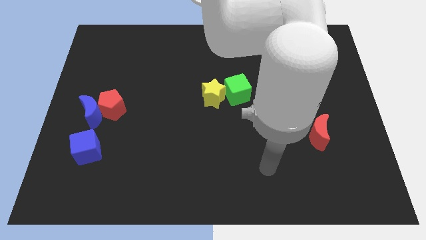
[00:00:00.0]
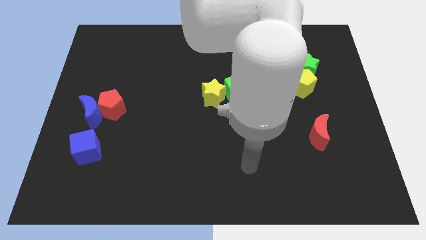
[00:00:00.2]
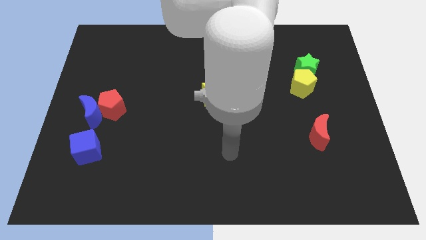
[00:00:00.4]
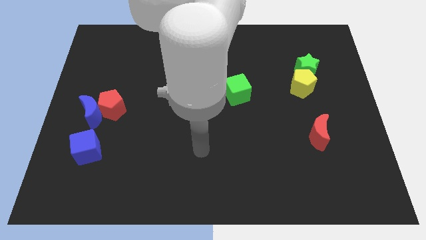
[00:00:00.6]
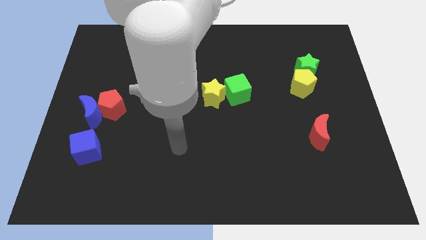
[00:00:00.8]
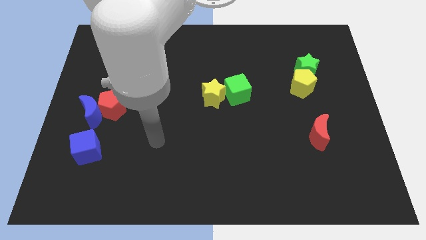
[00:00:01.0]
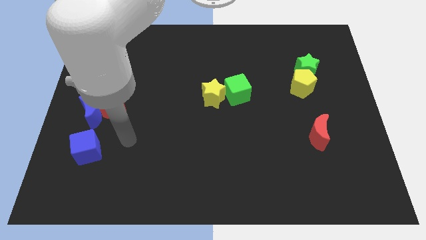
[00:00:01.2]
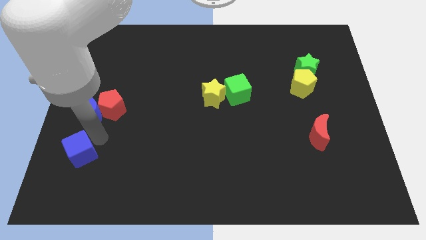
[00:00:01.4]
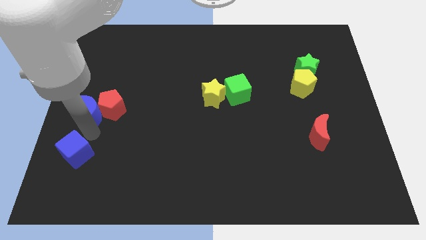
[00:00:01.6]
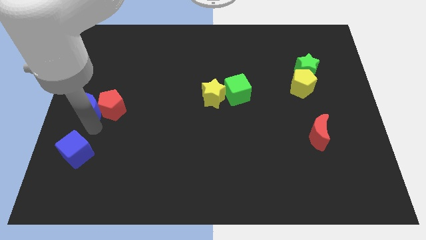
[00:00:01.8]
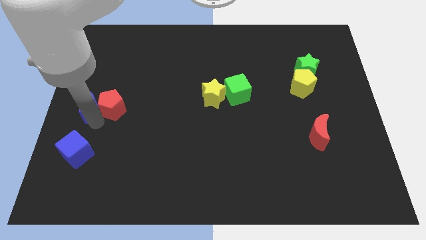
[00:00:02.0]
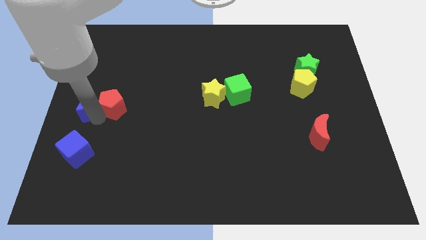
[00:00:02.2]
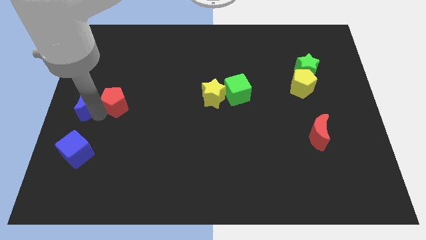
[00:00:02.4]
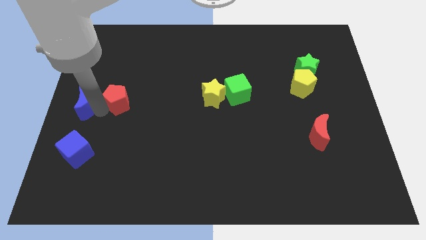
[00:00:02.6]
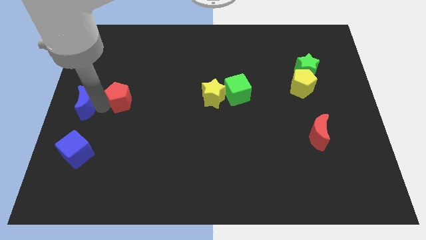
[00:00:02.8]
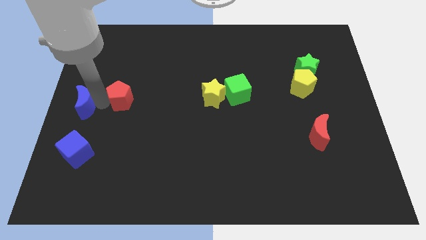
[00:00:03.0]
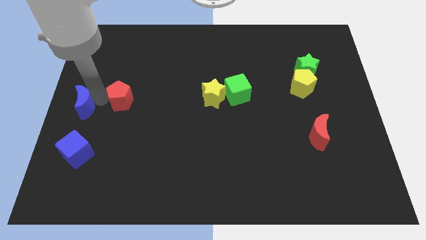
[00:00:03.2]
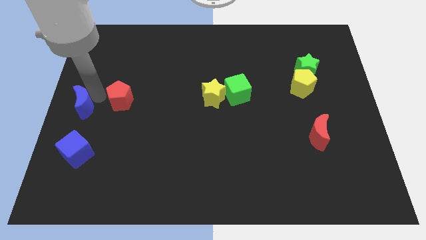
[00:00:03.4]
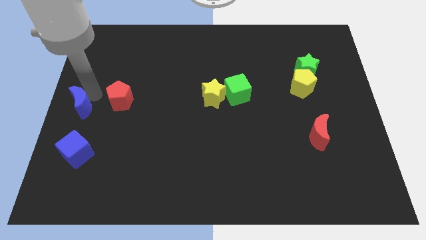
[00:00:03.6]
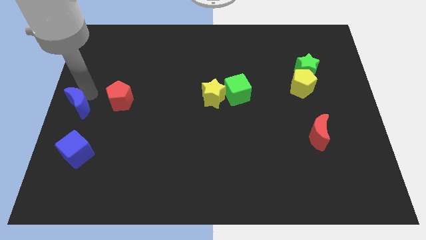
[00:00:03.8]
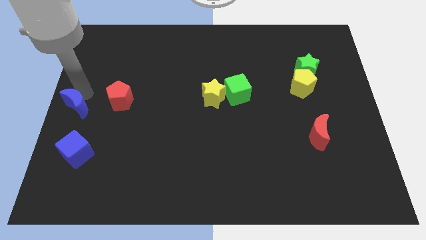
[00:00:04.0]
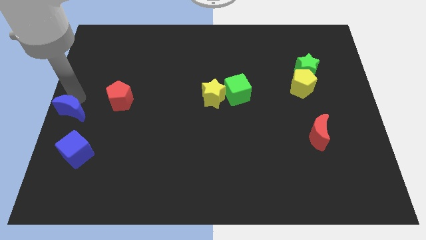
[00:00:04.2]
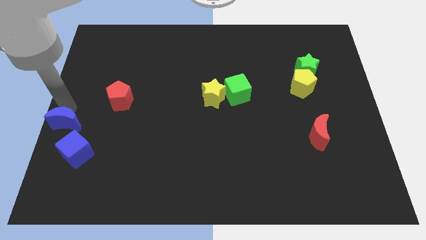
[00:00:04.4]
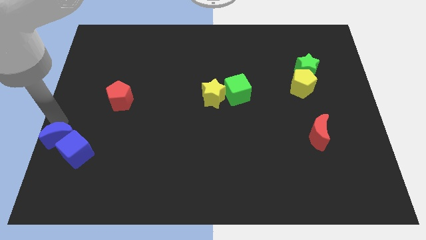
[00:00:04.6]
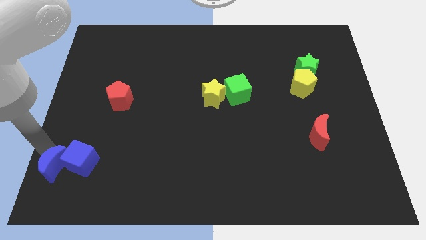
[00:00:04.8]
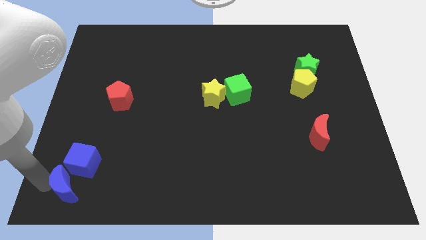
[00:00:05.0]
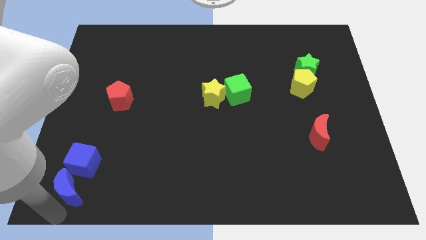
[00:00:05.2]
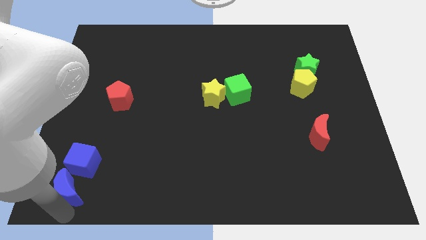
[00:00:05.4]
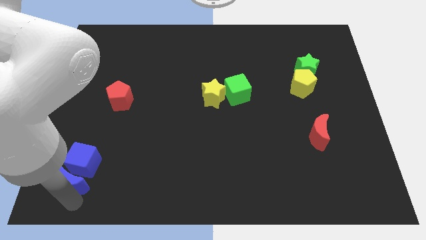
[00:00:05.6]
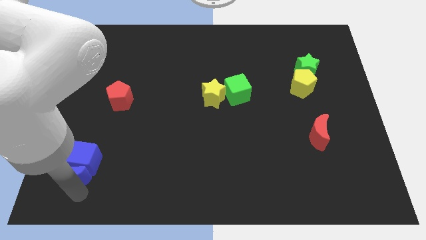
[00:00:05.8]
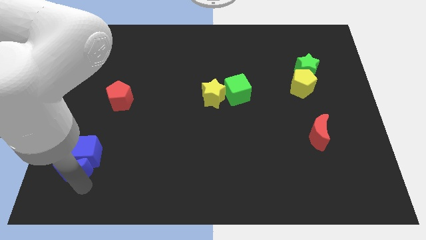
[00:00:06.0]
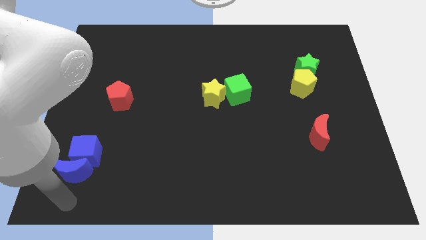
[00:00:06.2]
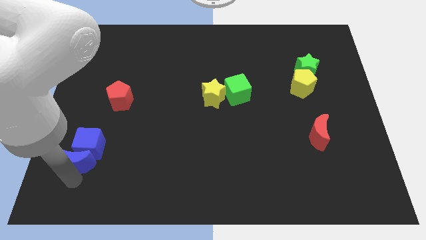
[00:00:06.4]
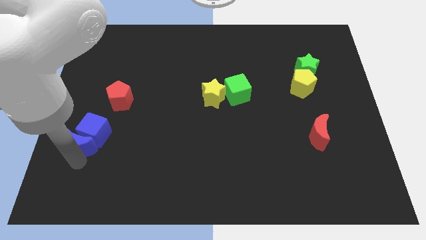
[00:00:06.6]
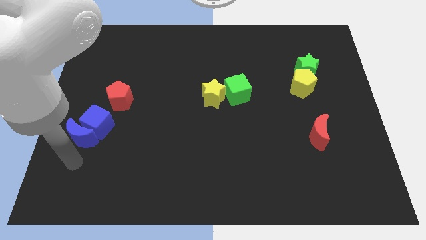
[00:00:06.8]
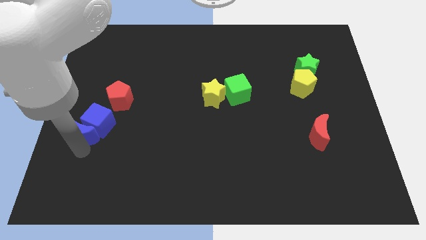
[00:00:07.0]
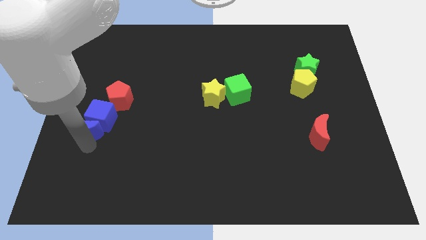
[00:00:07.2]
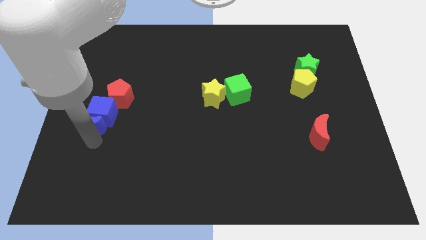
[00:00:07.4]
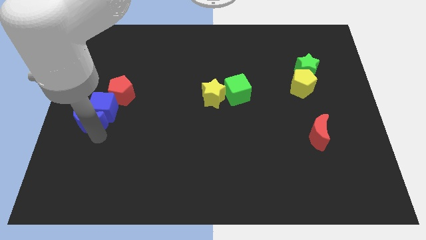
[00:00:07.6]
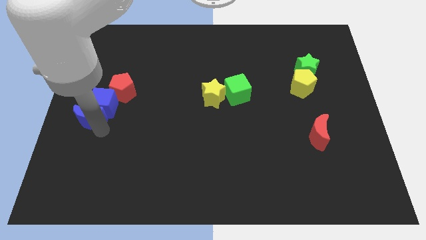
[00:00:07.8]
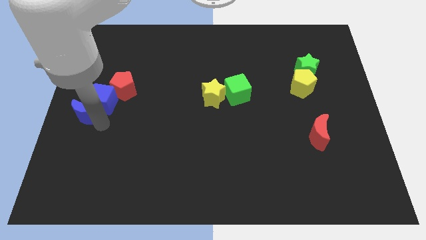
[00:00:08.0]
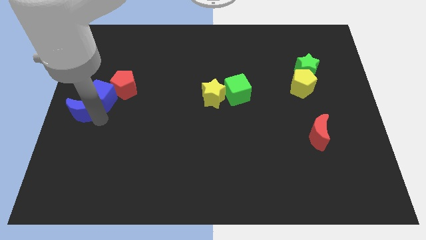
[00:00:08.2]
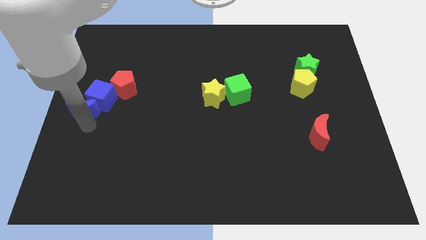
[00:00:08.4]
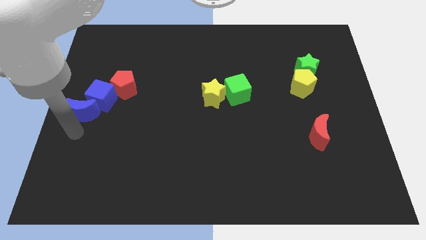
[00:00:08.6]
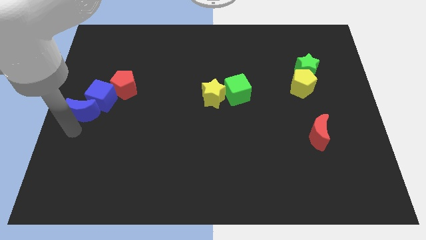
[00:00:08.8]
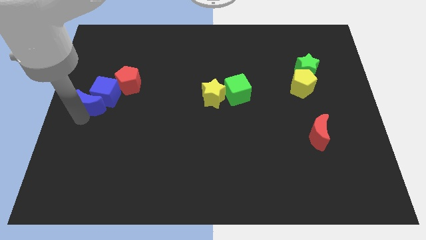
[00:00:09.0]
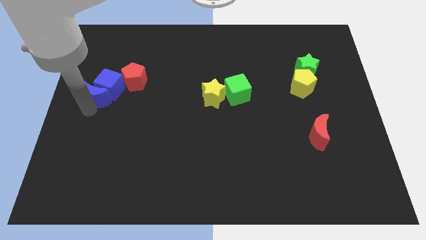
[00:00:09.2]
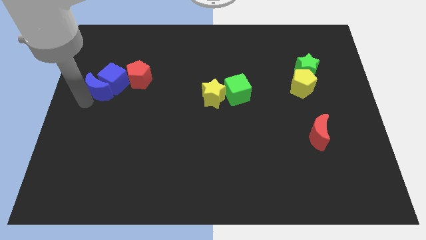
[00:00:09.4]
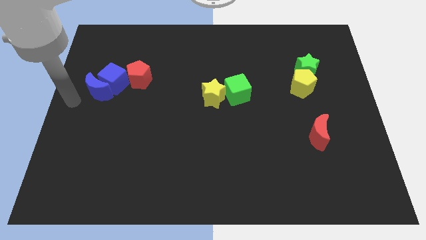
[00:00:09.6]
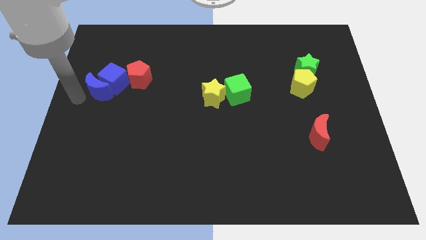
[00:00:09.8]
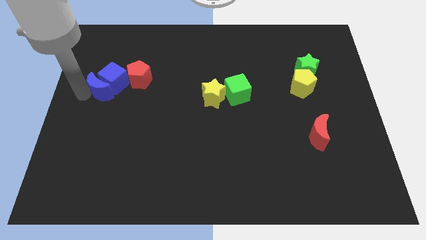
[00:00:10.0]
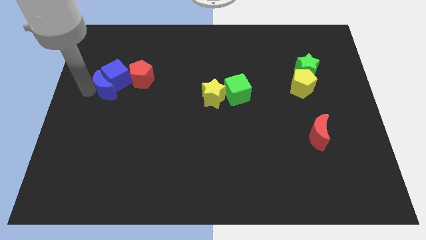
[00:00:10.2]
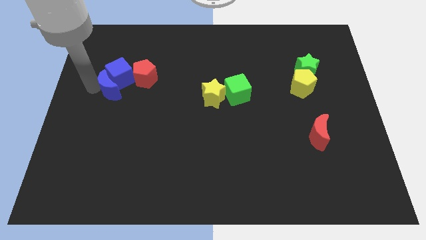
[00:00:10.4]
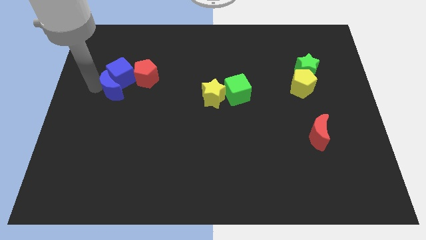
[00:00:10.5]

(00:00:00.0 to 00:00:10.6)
push the blue moon upwards and then right a little

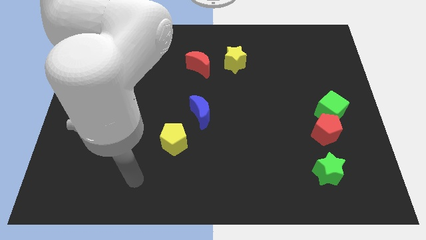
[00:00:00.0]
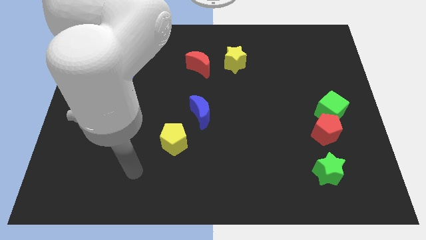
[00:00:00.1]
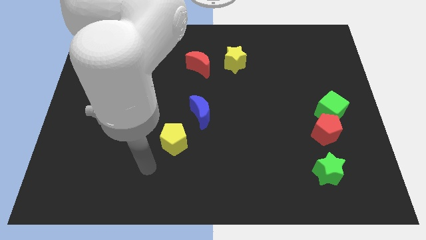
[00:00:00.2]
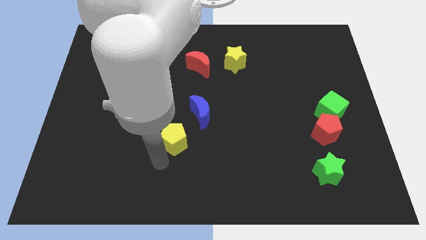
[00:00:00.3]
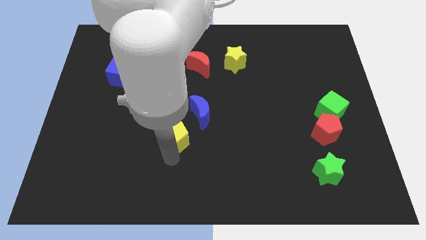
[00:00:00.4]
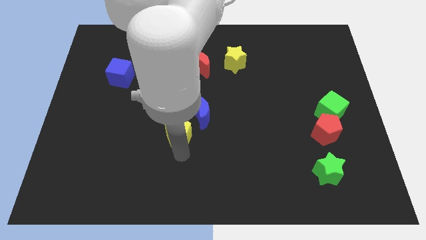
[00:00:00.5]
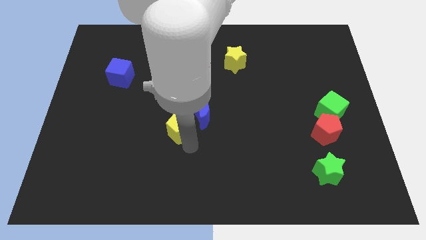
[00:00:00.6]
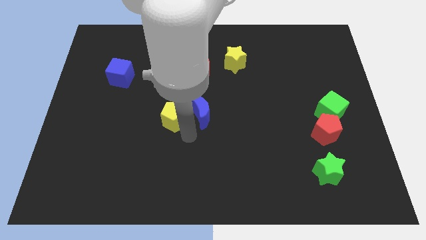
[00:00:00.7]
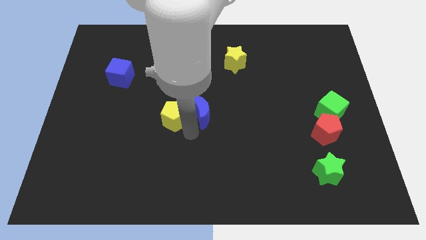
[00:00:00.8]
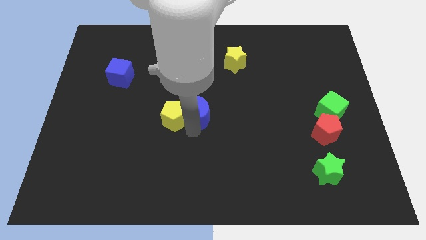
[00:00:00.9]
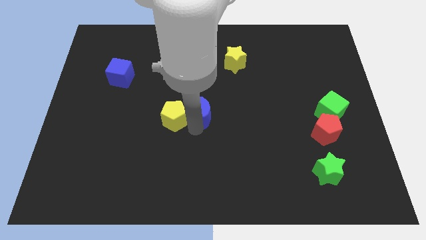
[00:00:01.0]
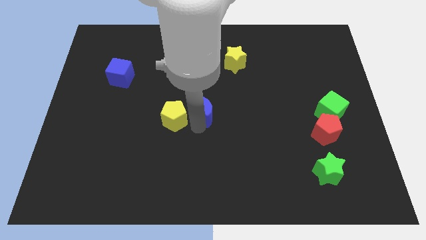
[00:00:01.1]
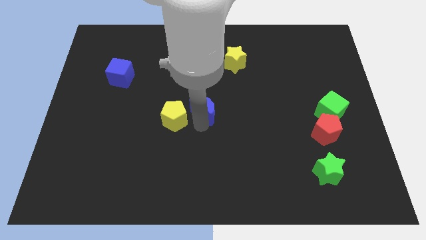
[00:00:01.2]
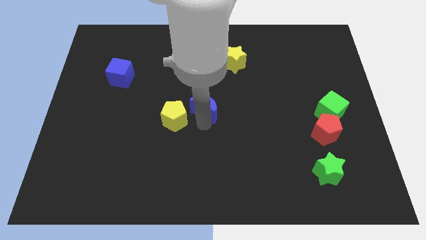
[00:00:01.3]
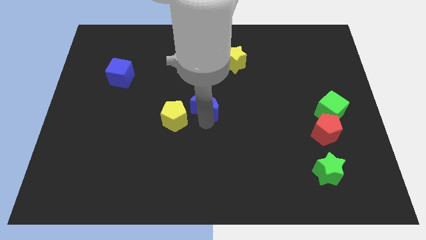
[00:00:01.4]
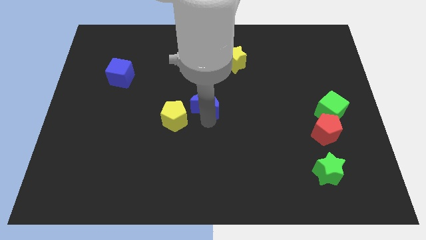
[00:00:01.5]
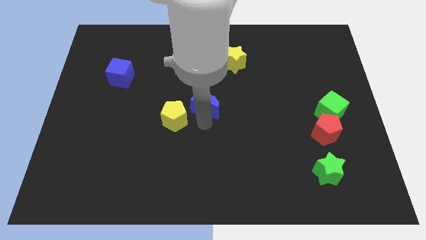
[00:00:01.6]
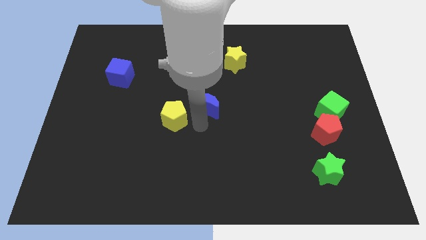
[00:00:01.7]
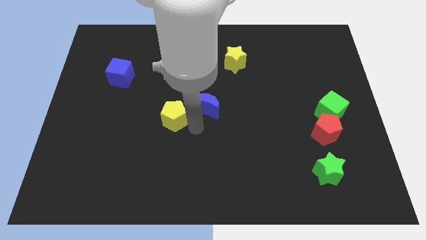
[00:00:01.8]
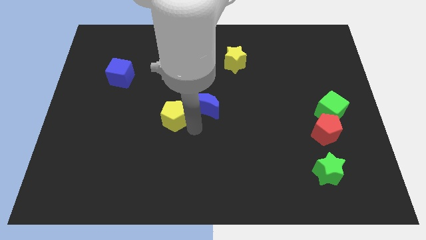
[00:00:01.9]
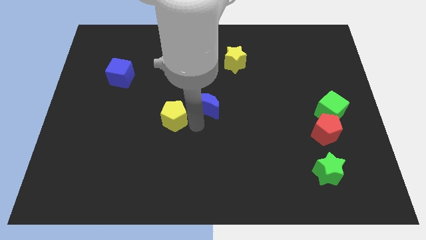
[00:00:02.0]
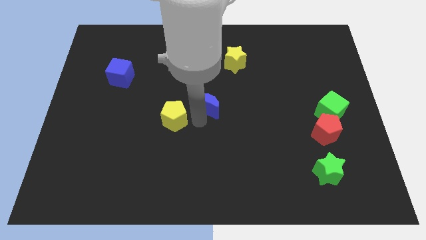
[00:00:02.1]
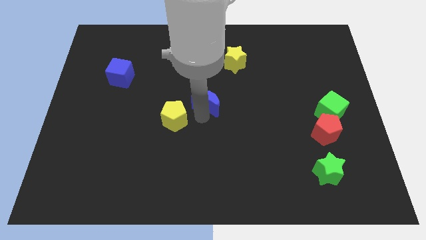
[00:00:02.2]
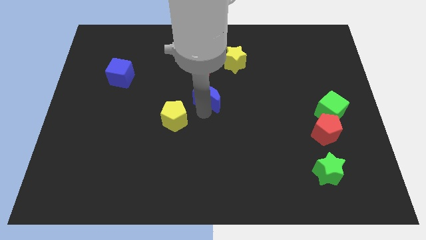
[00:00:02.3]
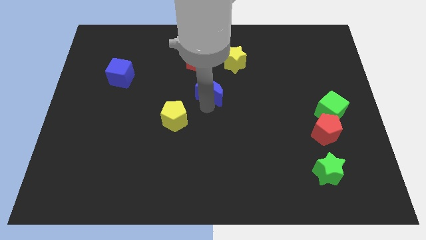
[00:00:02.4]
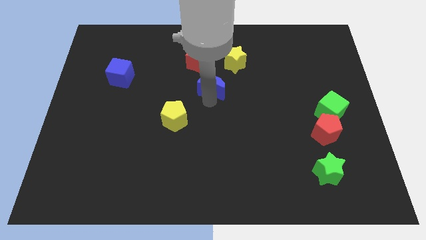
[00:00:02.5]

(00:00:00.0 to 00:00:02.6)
slide the blue moon a little bit upwards
